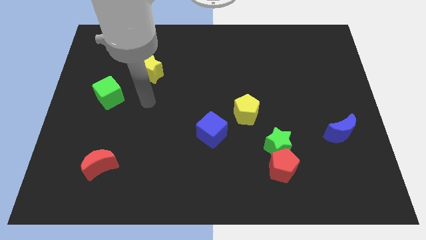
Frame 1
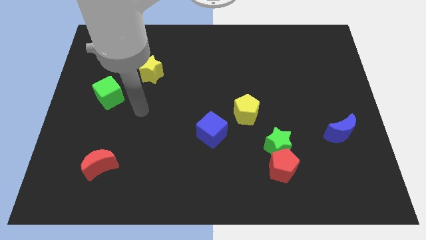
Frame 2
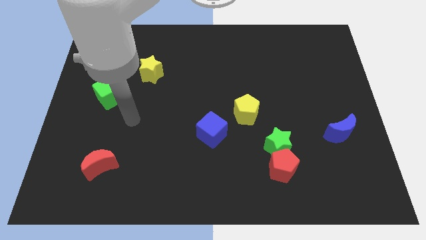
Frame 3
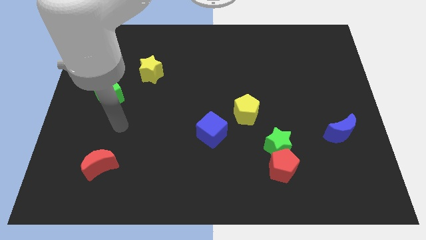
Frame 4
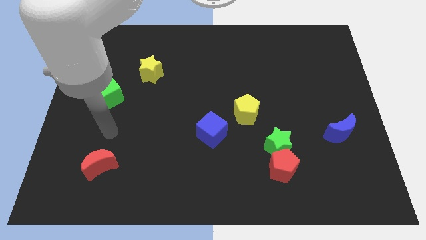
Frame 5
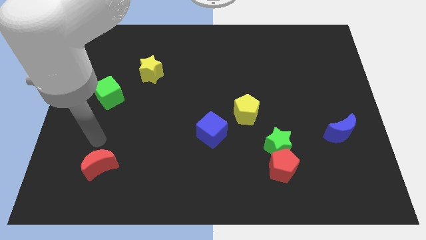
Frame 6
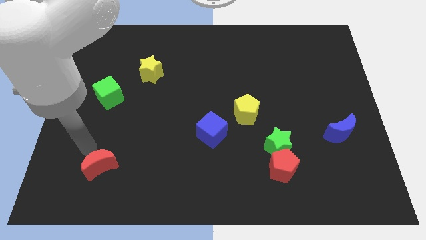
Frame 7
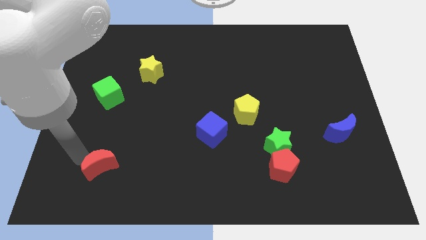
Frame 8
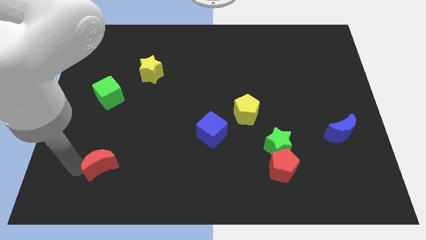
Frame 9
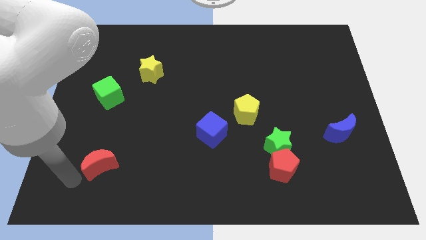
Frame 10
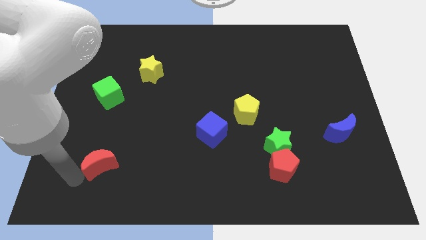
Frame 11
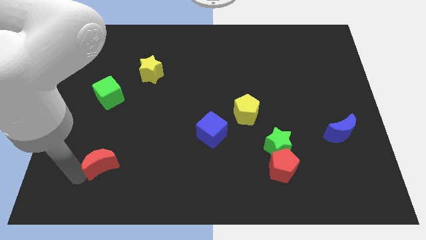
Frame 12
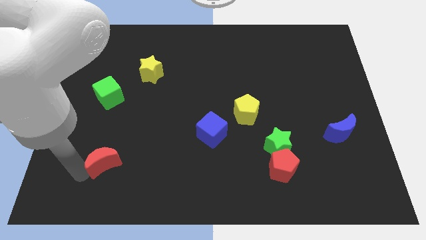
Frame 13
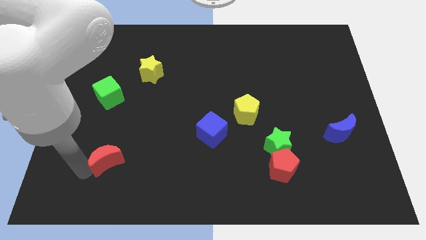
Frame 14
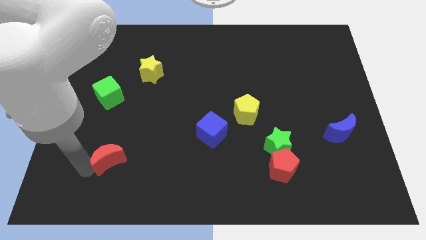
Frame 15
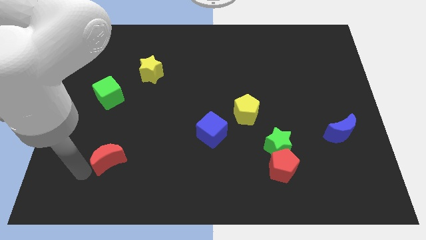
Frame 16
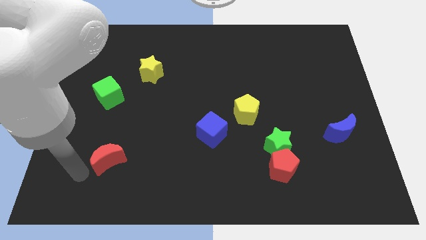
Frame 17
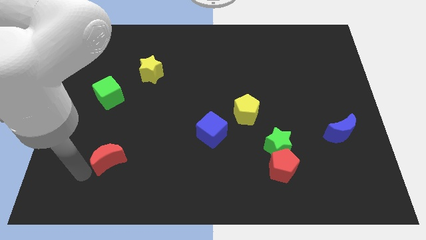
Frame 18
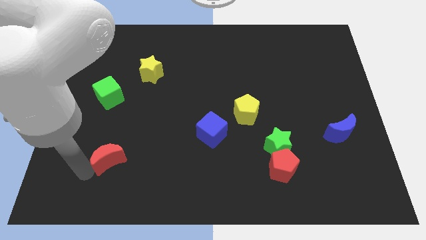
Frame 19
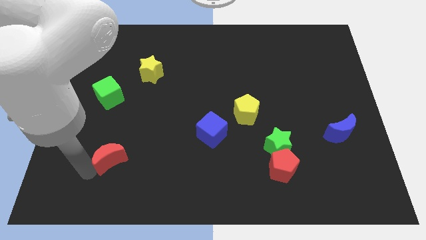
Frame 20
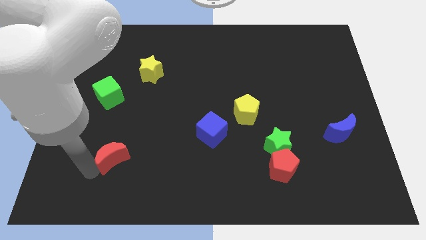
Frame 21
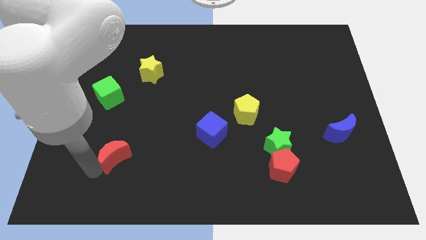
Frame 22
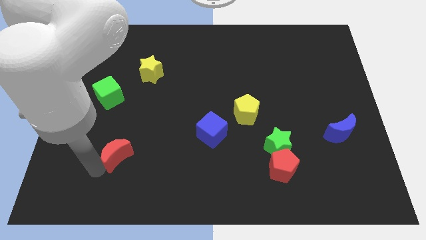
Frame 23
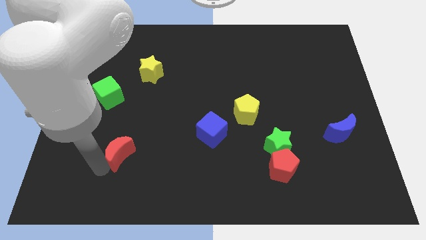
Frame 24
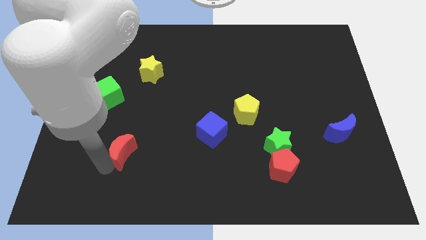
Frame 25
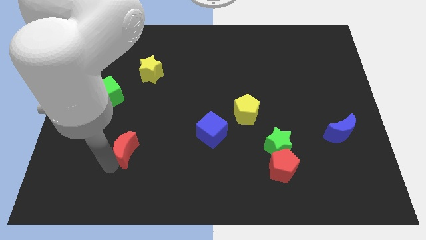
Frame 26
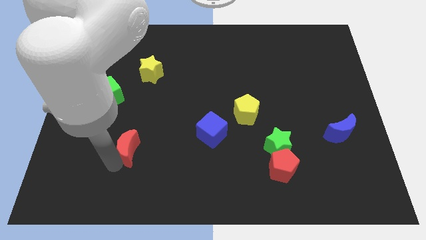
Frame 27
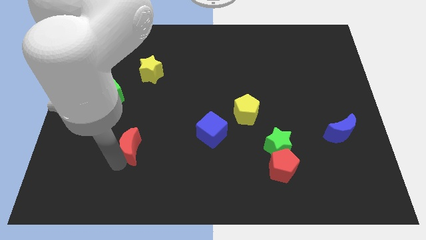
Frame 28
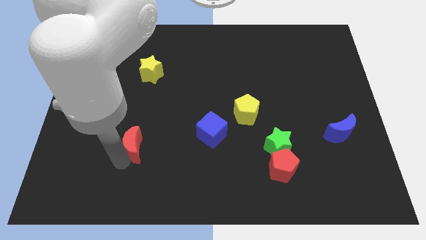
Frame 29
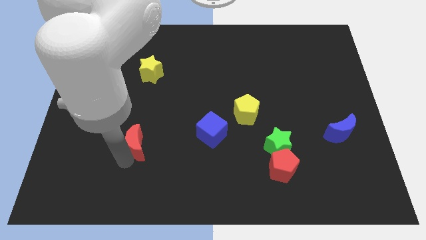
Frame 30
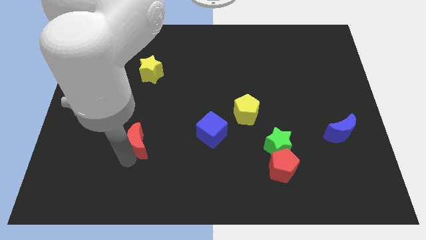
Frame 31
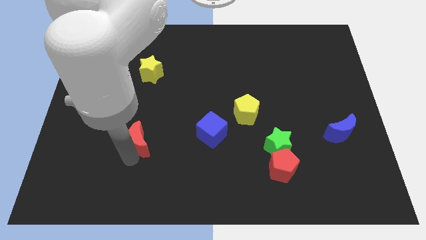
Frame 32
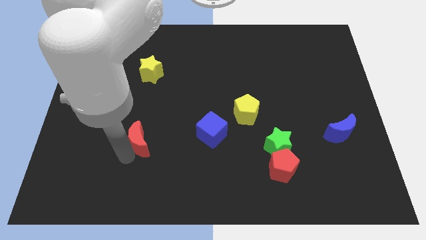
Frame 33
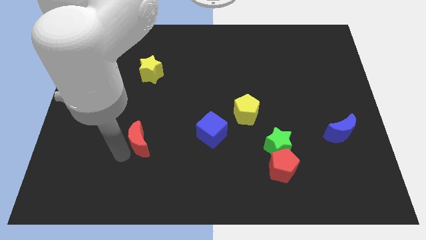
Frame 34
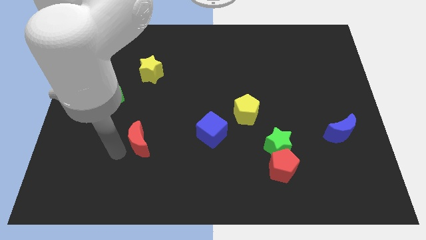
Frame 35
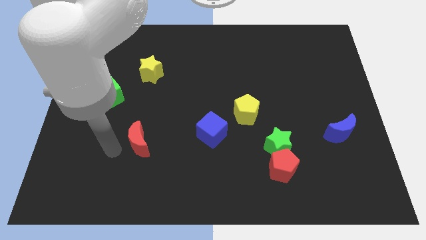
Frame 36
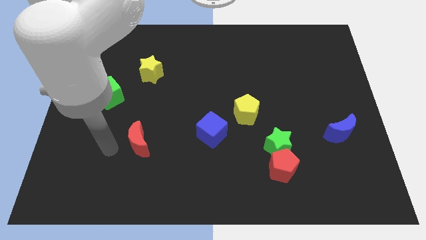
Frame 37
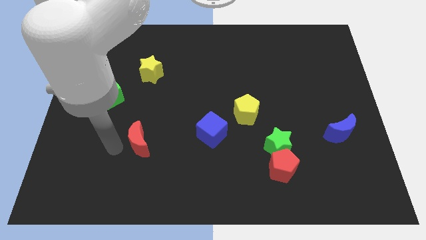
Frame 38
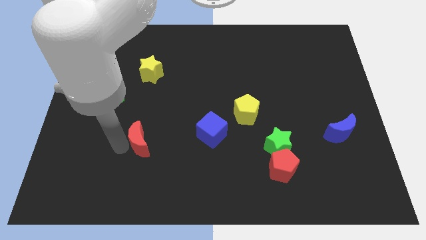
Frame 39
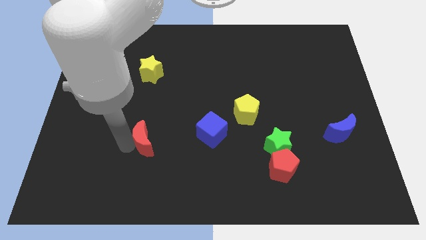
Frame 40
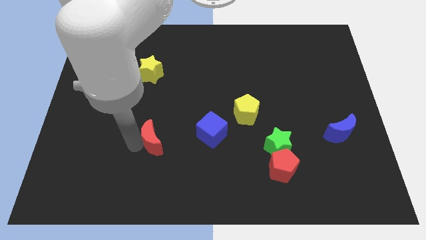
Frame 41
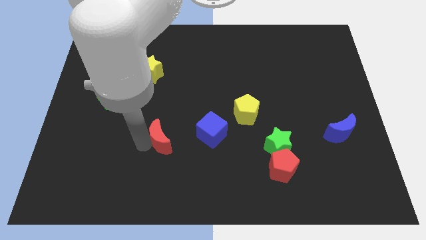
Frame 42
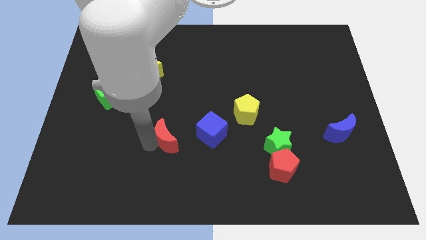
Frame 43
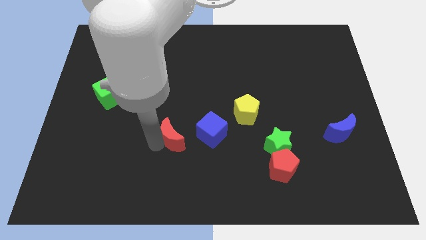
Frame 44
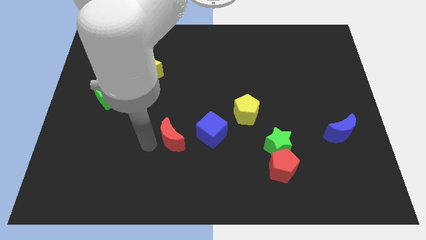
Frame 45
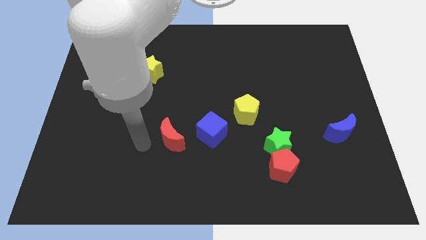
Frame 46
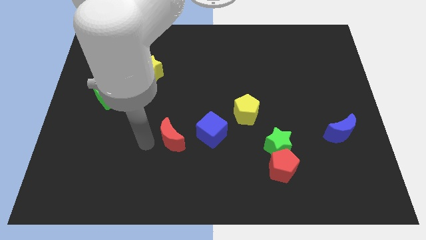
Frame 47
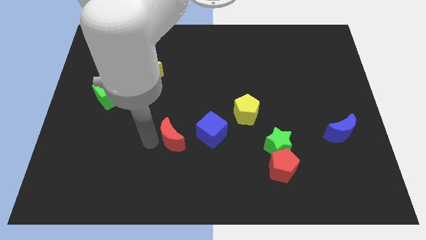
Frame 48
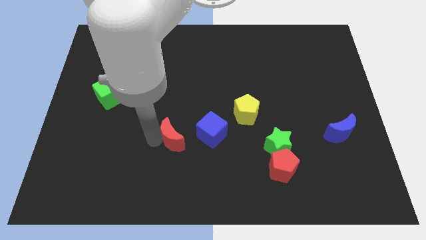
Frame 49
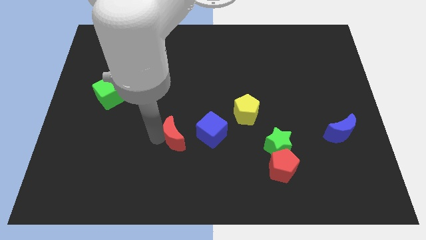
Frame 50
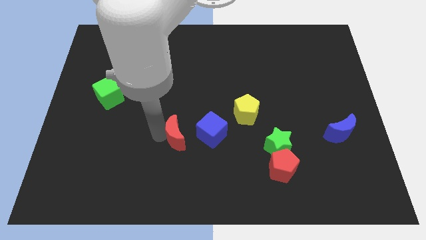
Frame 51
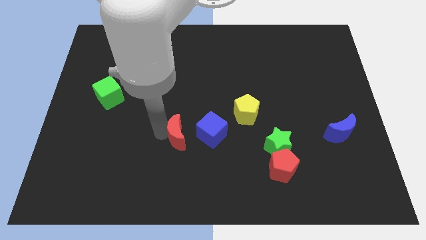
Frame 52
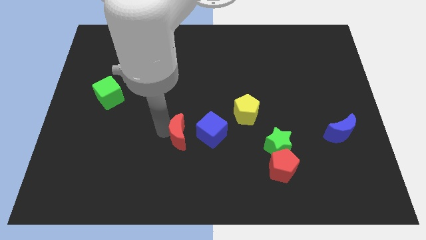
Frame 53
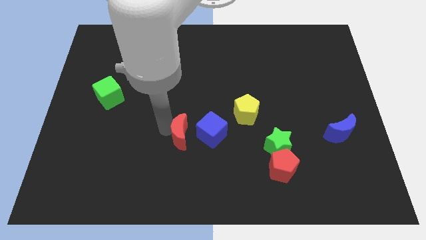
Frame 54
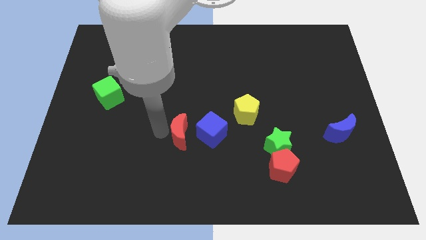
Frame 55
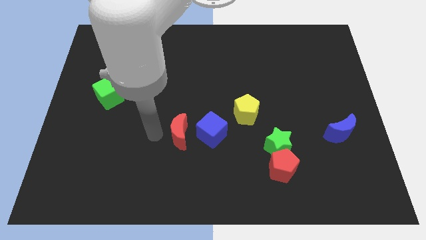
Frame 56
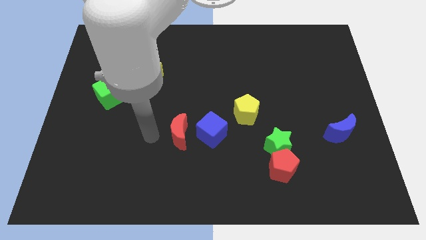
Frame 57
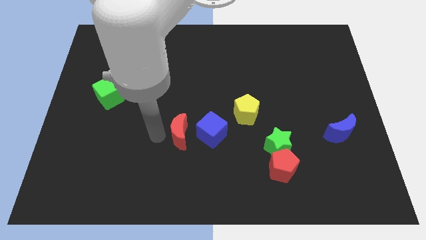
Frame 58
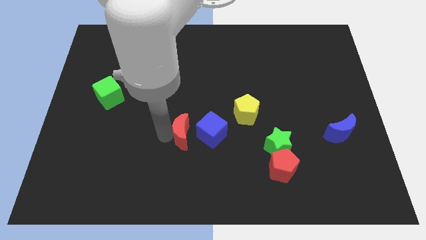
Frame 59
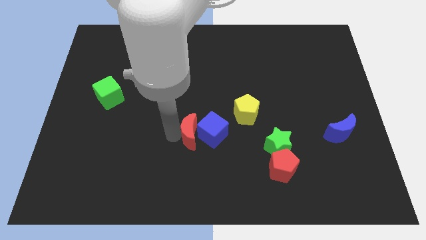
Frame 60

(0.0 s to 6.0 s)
move the red moon close to the blue cube
